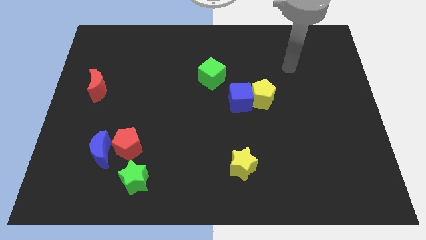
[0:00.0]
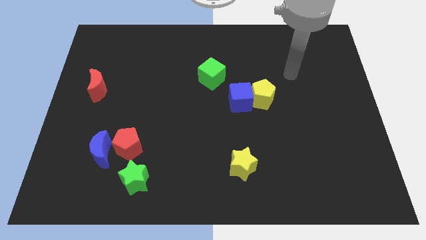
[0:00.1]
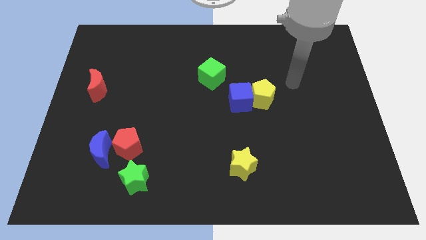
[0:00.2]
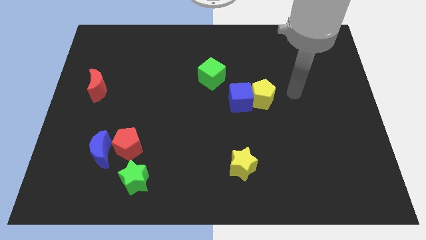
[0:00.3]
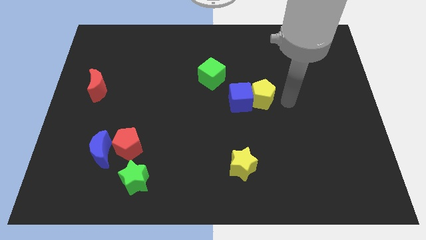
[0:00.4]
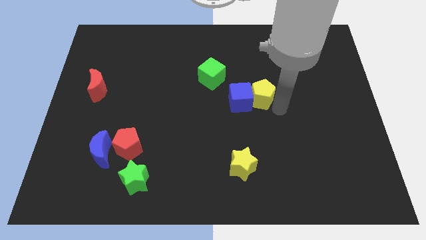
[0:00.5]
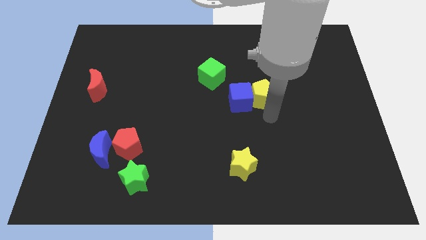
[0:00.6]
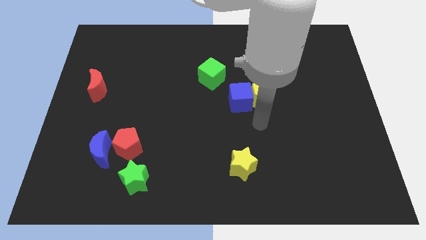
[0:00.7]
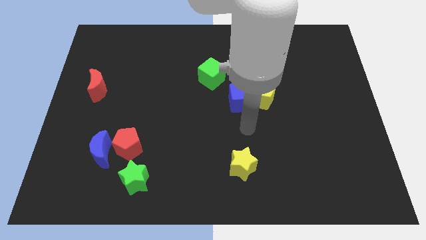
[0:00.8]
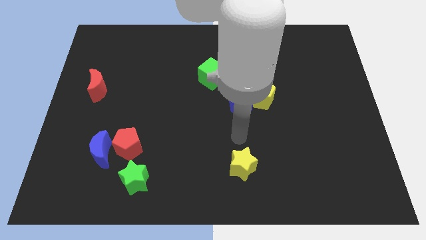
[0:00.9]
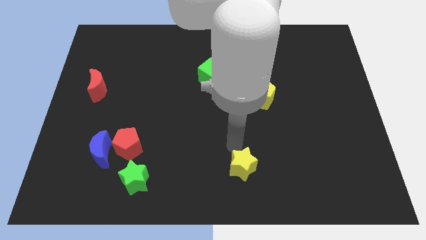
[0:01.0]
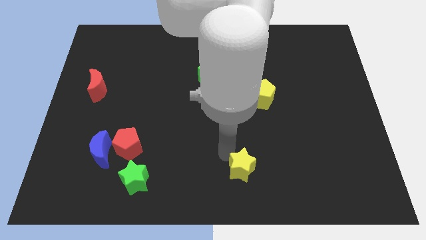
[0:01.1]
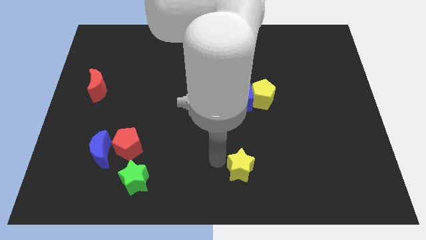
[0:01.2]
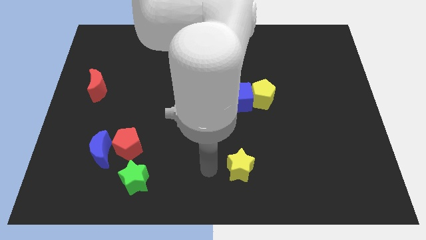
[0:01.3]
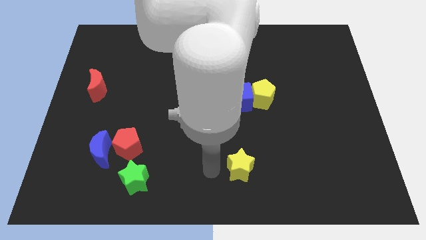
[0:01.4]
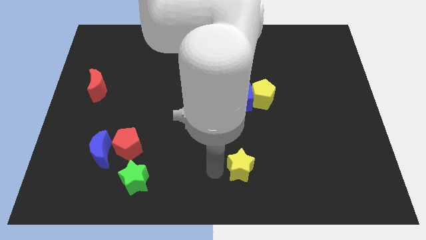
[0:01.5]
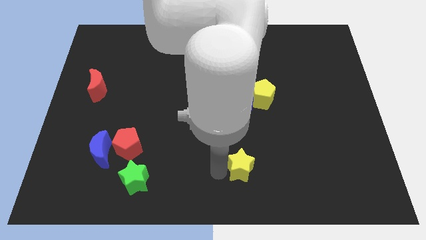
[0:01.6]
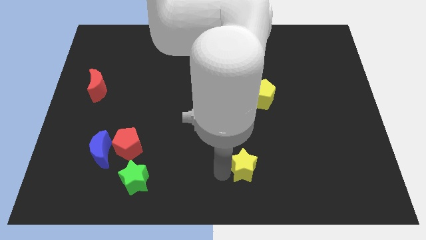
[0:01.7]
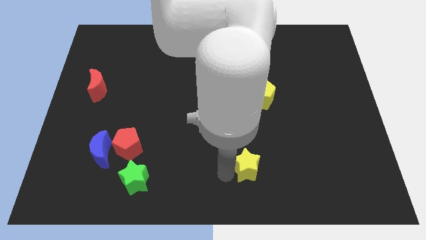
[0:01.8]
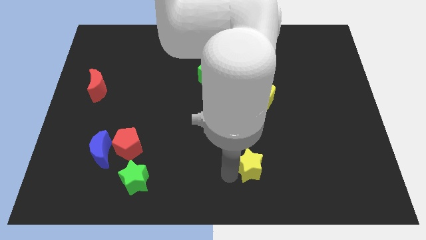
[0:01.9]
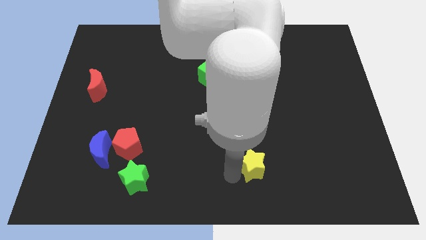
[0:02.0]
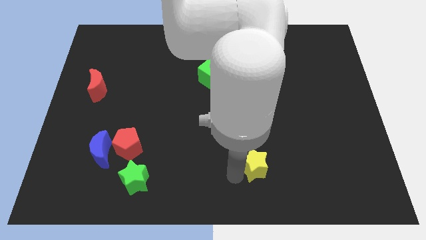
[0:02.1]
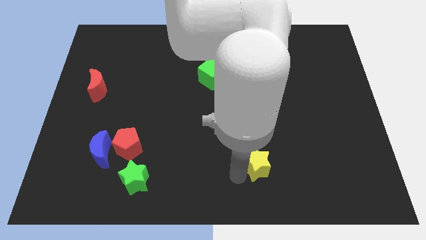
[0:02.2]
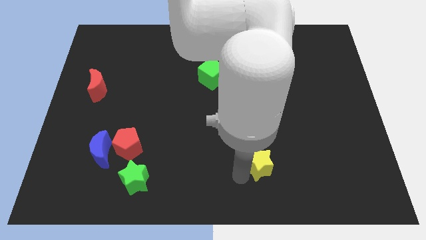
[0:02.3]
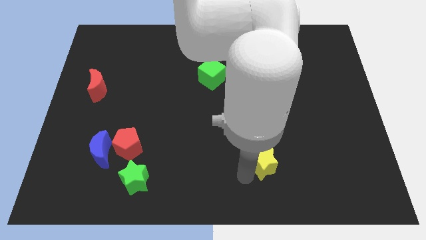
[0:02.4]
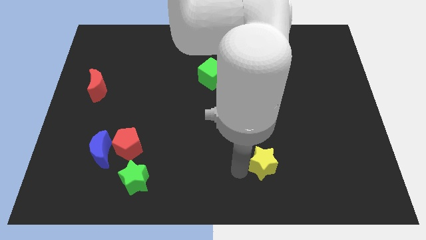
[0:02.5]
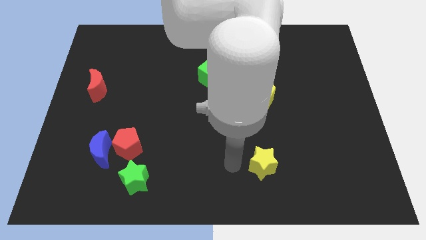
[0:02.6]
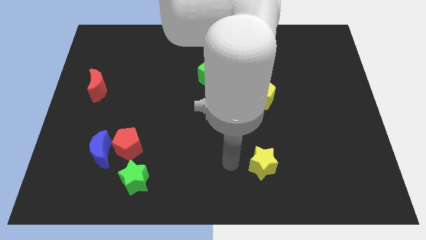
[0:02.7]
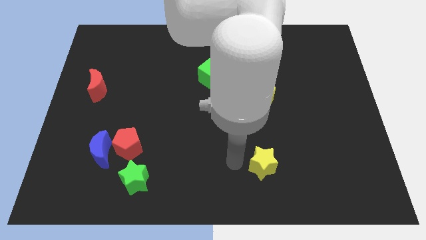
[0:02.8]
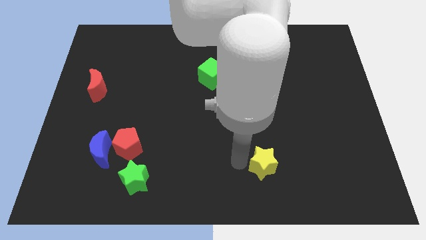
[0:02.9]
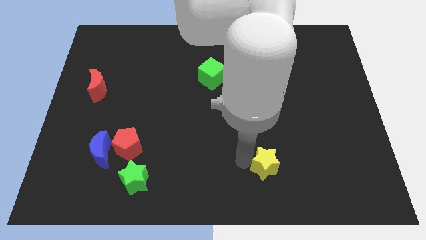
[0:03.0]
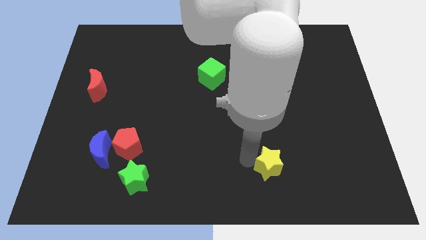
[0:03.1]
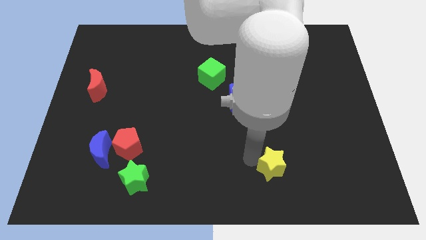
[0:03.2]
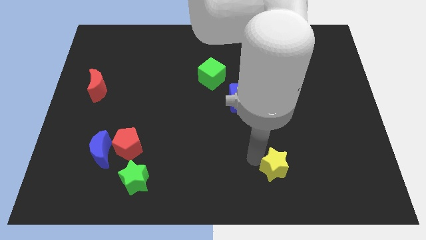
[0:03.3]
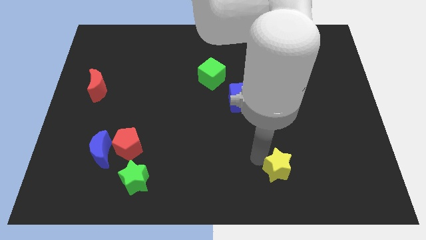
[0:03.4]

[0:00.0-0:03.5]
slide the yellow star to the right slightly

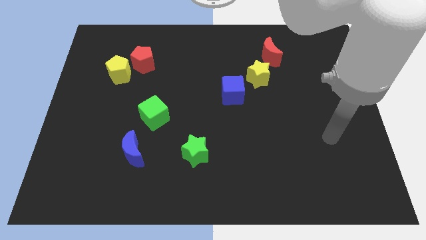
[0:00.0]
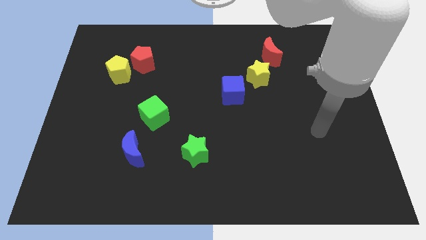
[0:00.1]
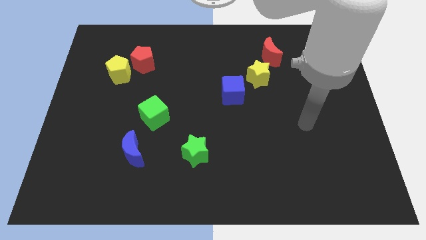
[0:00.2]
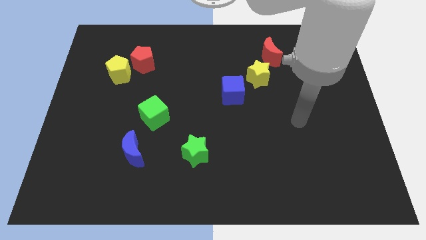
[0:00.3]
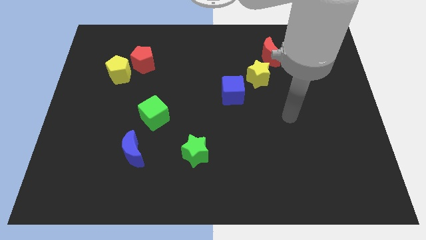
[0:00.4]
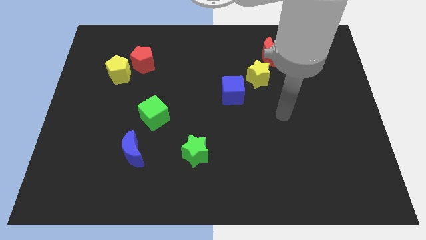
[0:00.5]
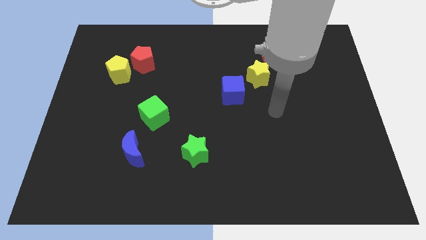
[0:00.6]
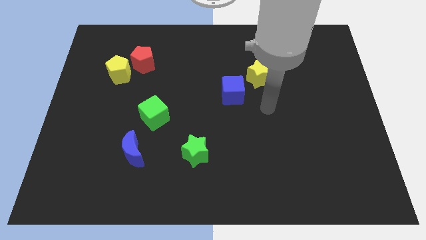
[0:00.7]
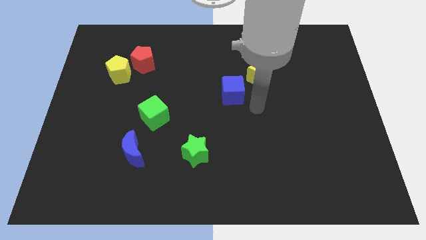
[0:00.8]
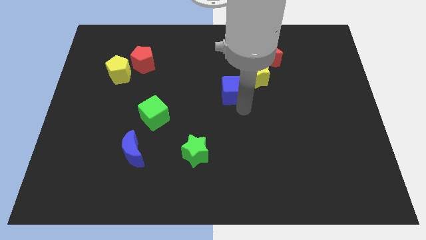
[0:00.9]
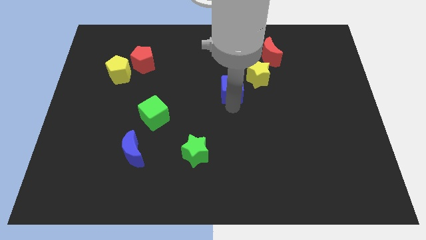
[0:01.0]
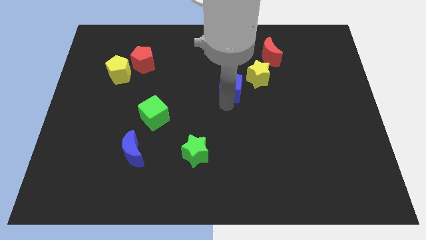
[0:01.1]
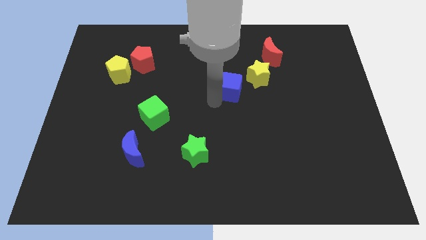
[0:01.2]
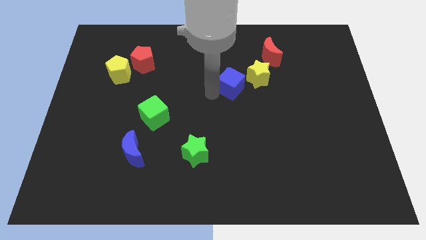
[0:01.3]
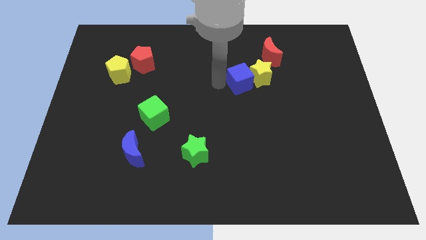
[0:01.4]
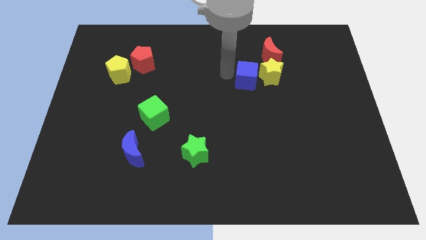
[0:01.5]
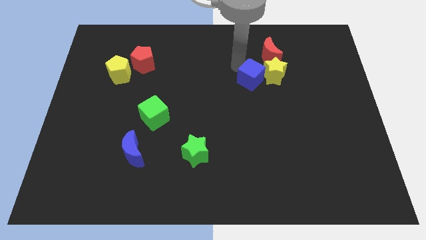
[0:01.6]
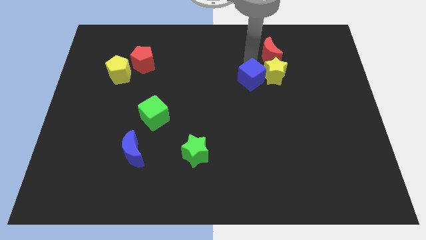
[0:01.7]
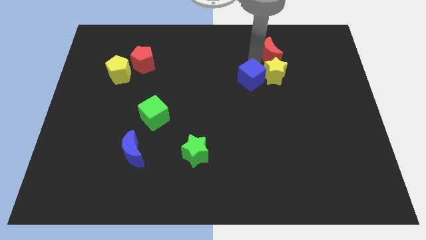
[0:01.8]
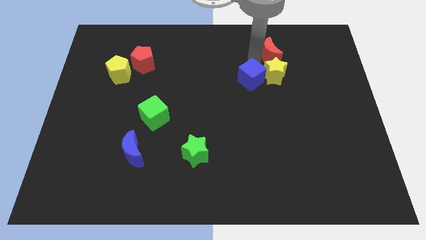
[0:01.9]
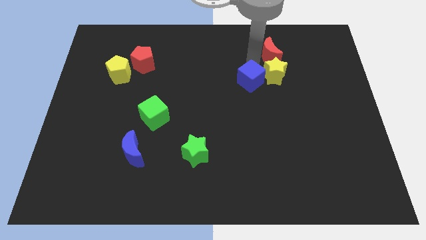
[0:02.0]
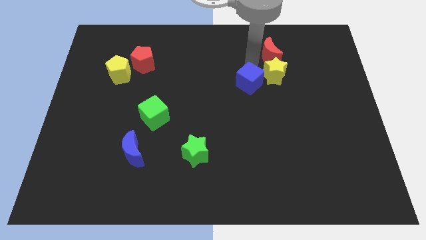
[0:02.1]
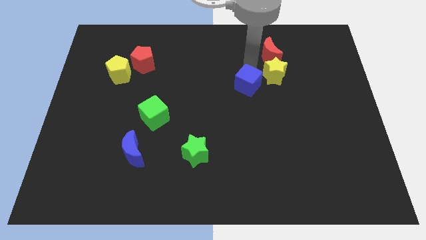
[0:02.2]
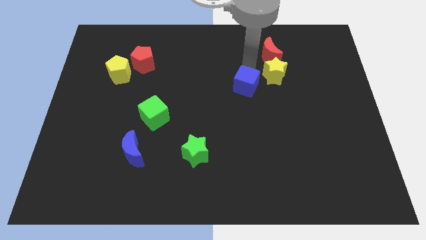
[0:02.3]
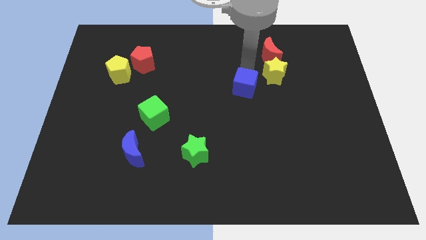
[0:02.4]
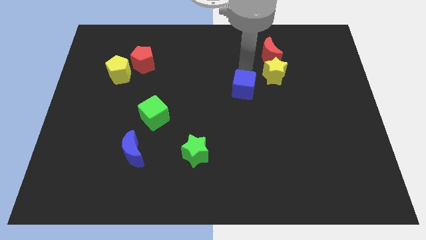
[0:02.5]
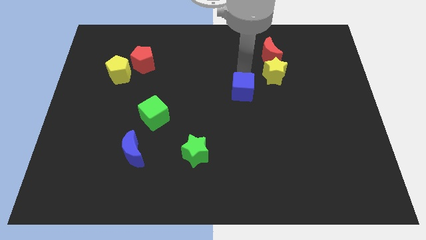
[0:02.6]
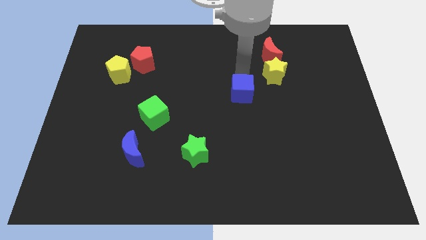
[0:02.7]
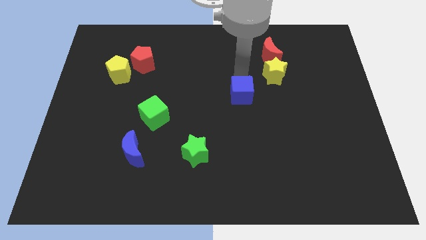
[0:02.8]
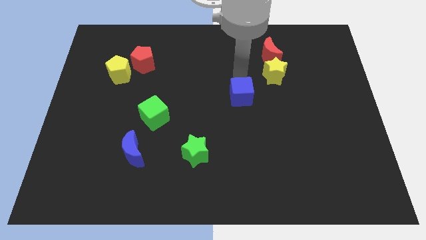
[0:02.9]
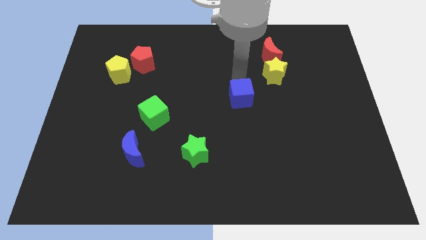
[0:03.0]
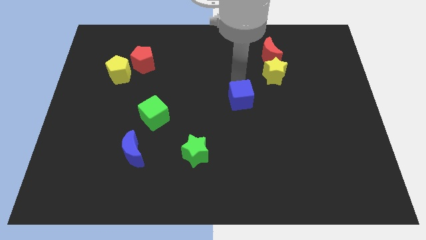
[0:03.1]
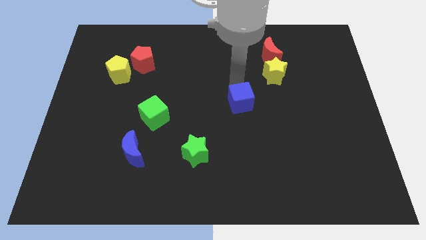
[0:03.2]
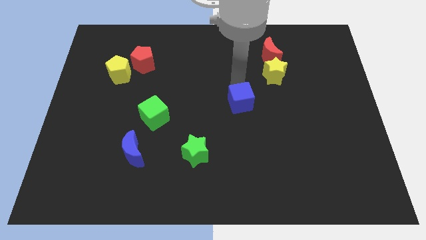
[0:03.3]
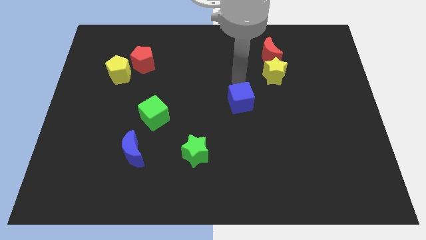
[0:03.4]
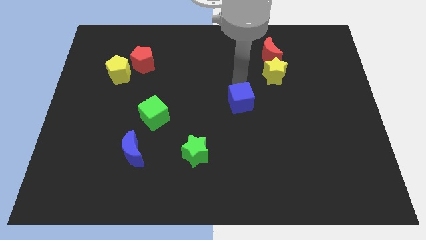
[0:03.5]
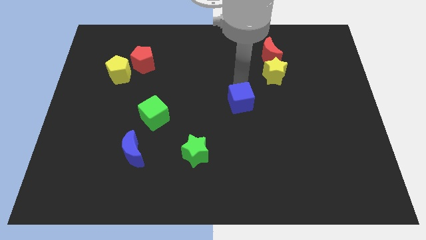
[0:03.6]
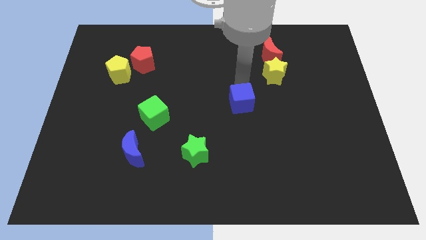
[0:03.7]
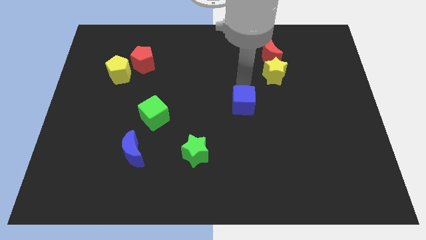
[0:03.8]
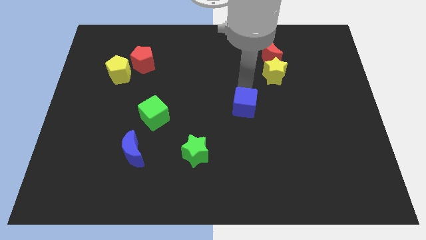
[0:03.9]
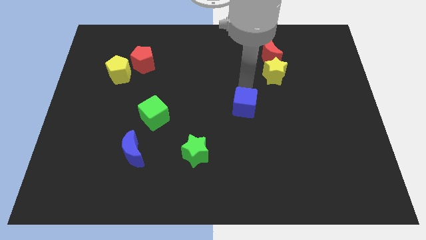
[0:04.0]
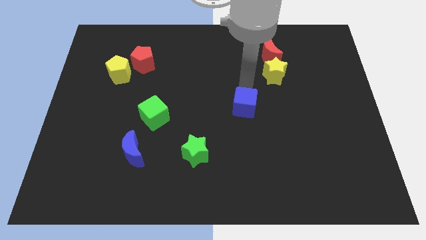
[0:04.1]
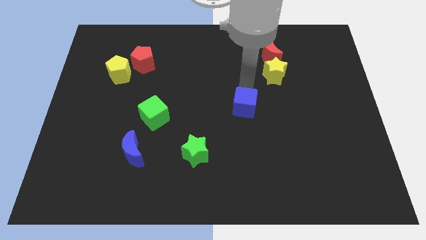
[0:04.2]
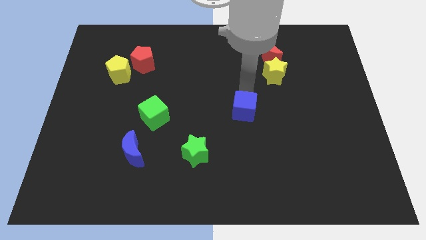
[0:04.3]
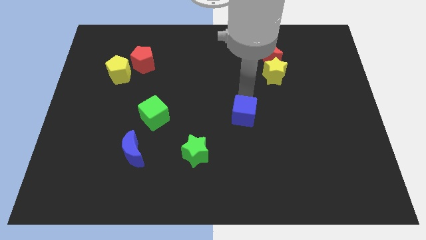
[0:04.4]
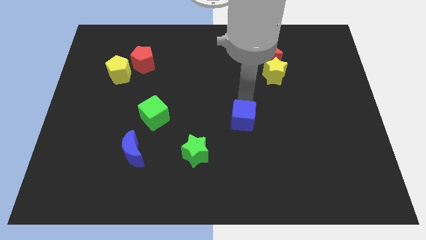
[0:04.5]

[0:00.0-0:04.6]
slide the blue cube downwards a little
